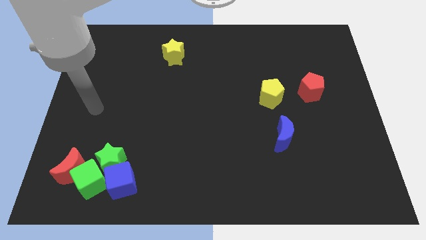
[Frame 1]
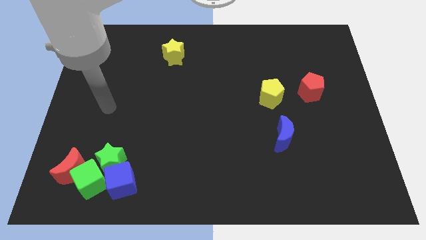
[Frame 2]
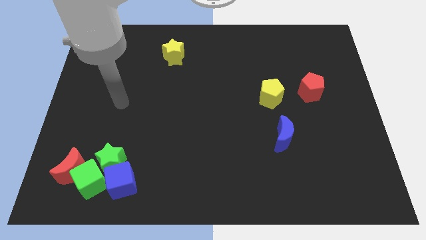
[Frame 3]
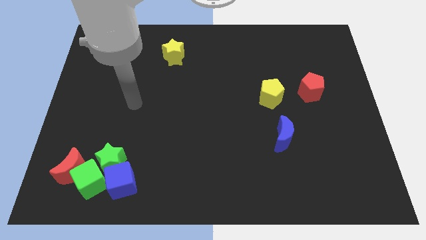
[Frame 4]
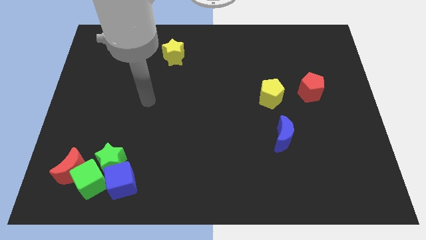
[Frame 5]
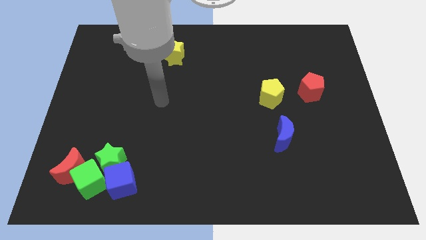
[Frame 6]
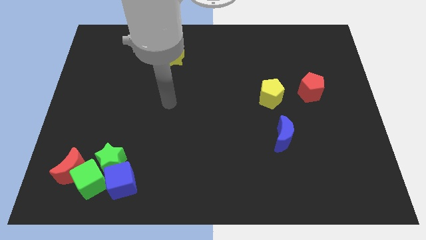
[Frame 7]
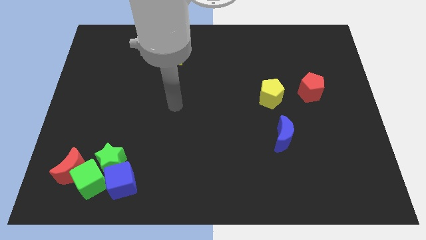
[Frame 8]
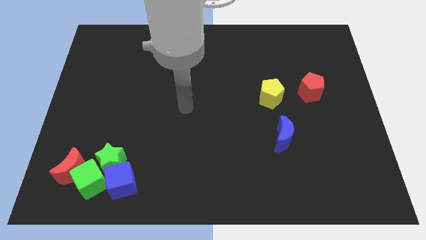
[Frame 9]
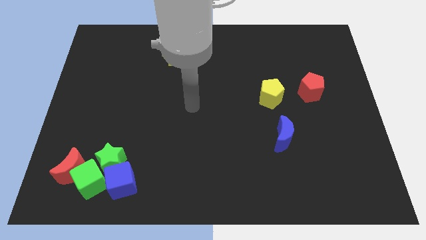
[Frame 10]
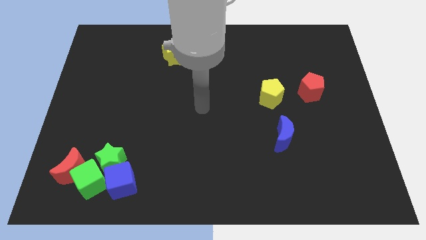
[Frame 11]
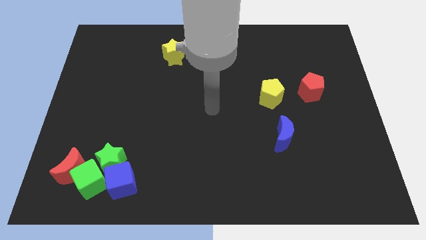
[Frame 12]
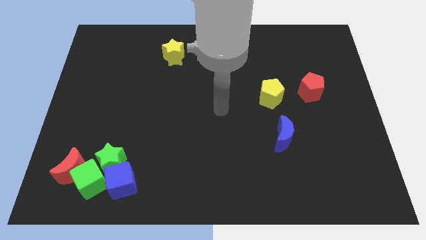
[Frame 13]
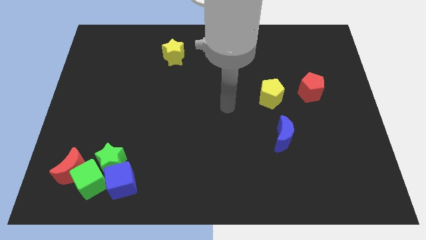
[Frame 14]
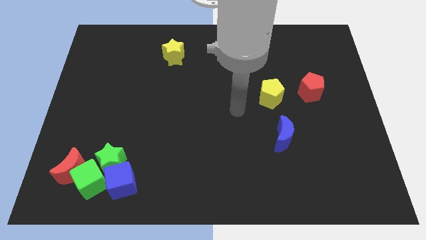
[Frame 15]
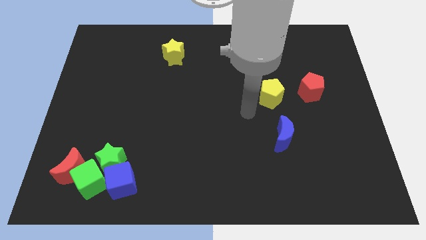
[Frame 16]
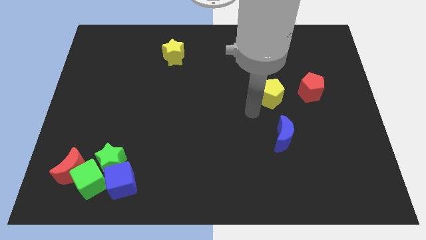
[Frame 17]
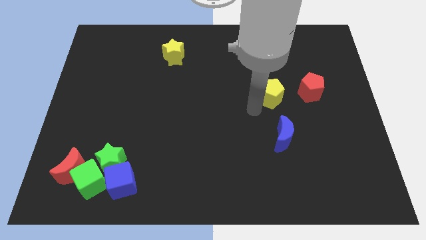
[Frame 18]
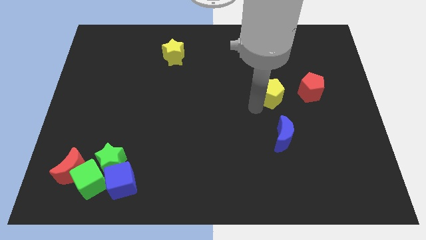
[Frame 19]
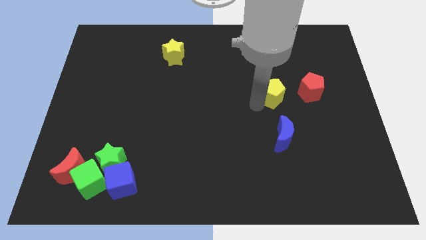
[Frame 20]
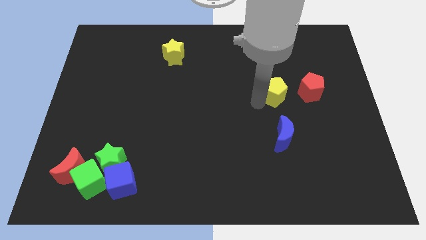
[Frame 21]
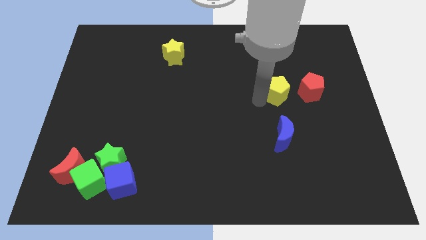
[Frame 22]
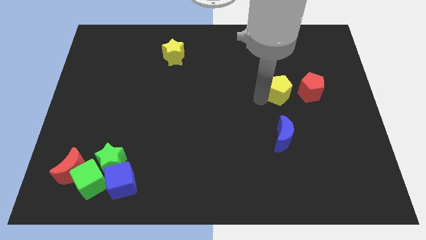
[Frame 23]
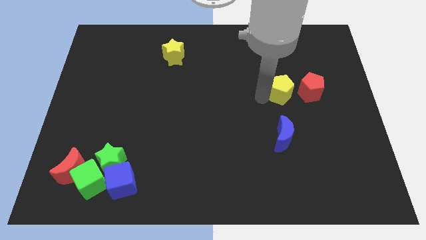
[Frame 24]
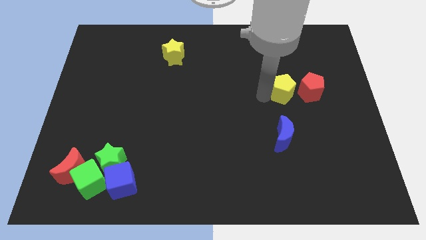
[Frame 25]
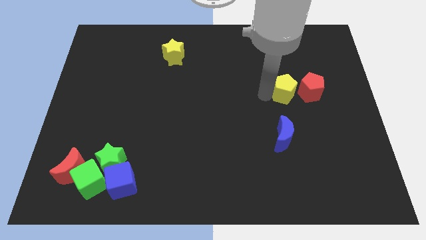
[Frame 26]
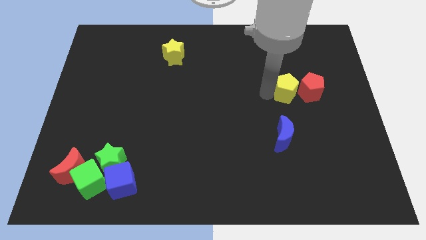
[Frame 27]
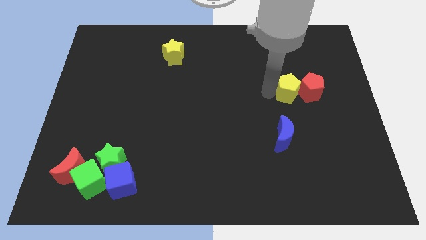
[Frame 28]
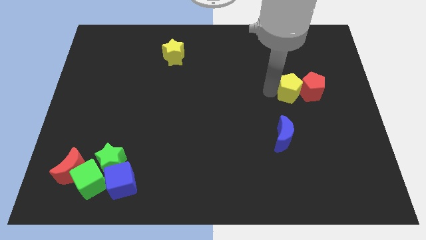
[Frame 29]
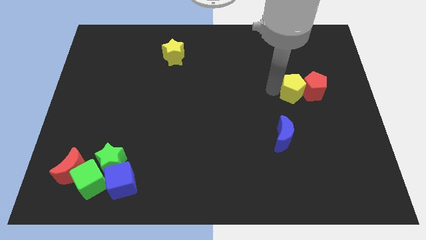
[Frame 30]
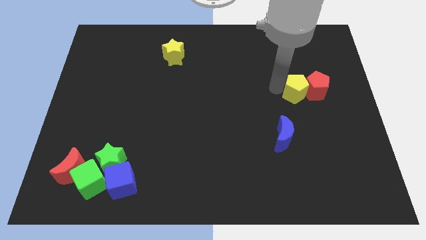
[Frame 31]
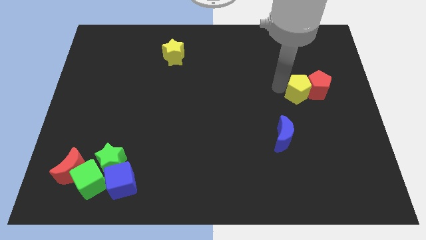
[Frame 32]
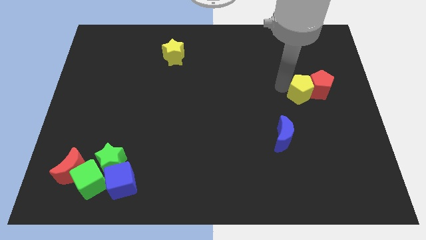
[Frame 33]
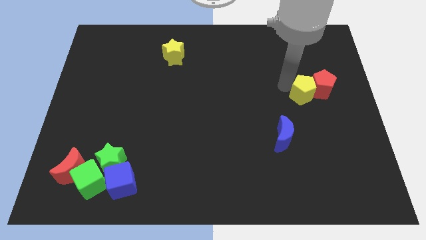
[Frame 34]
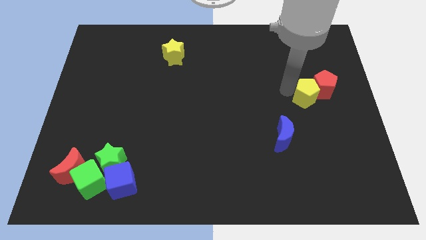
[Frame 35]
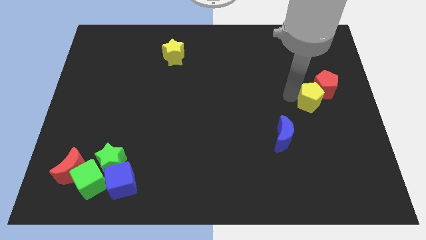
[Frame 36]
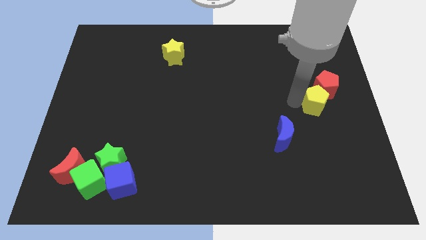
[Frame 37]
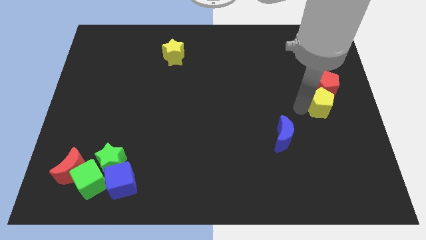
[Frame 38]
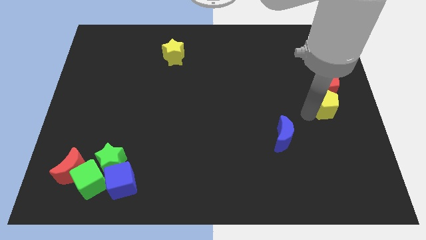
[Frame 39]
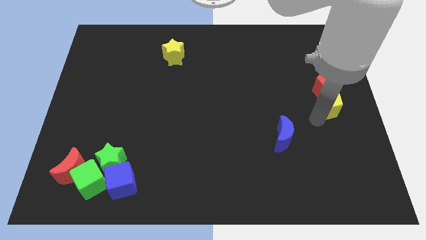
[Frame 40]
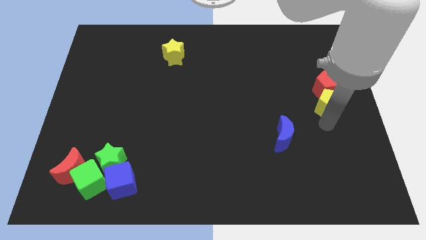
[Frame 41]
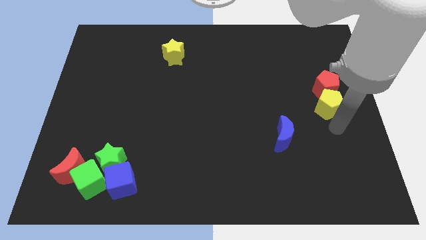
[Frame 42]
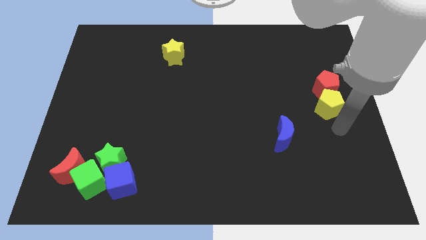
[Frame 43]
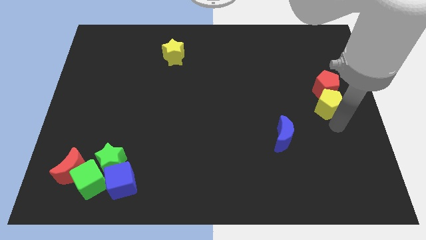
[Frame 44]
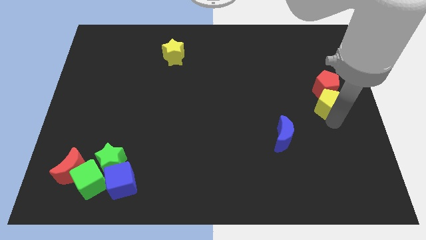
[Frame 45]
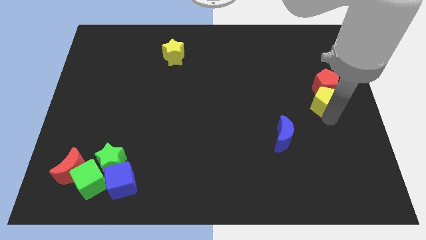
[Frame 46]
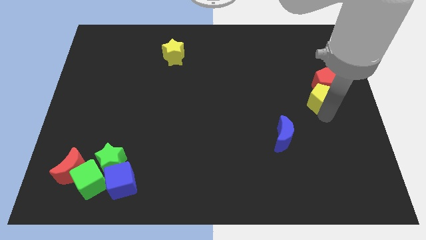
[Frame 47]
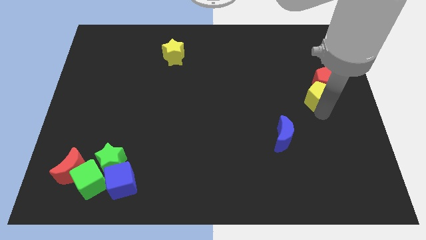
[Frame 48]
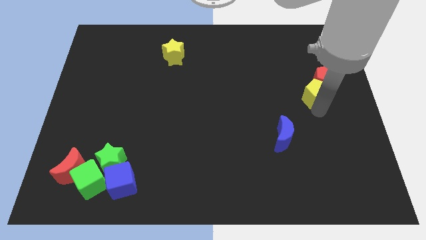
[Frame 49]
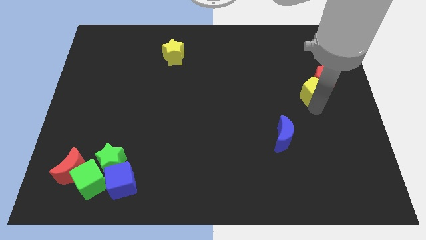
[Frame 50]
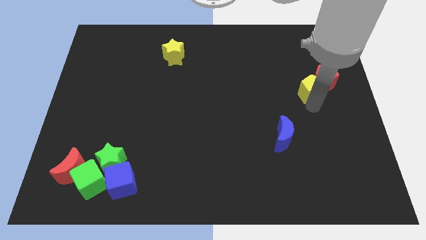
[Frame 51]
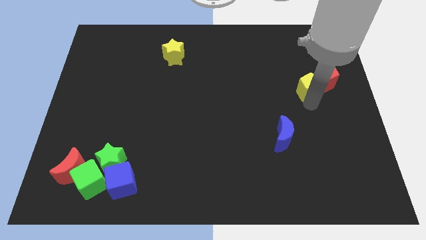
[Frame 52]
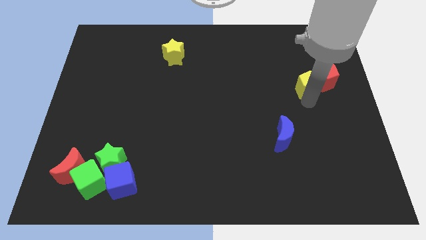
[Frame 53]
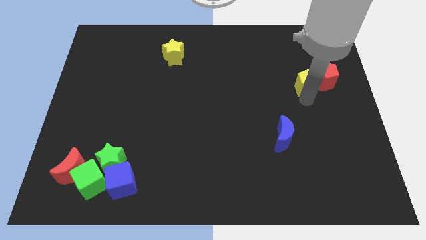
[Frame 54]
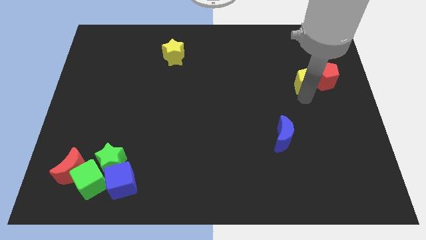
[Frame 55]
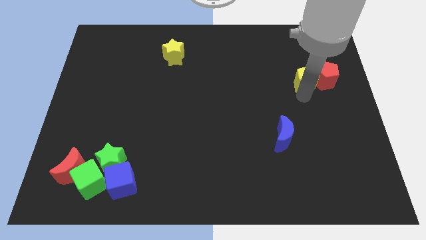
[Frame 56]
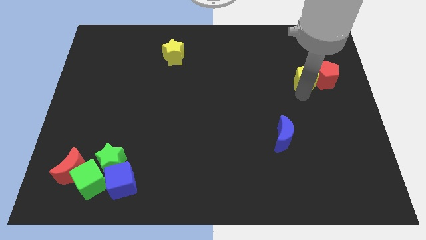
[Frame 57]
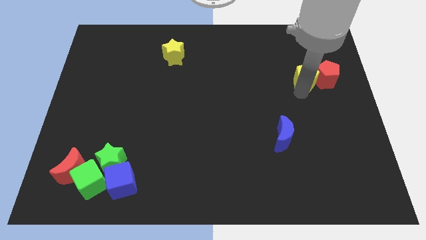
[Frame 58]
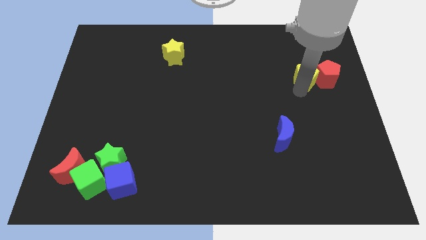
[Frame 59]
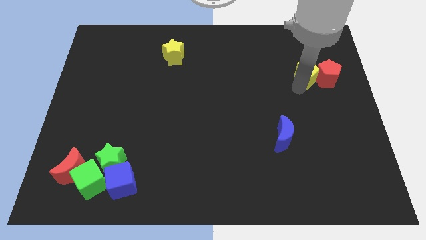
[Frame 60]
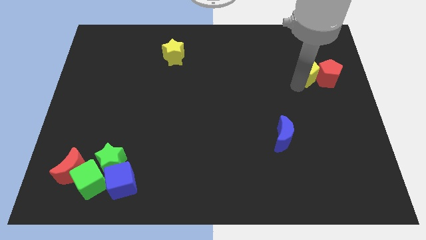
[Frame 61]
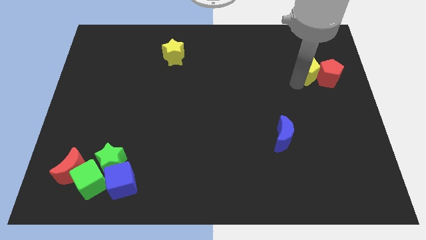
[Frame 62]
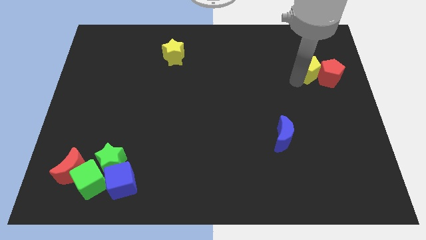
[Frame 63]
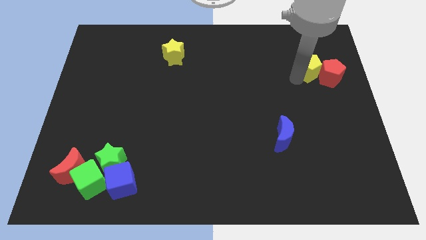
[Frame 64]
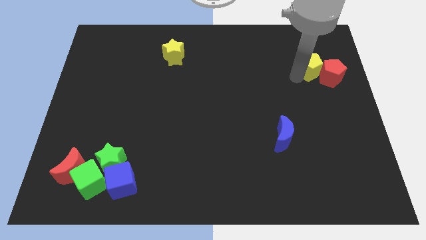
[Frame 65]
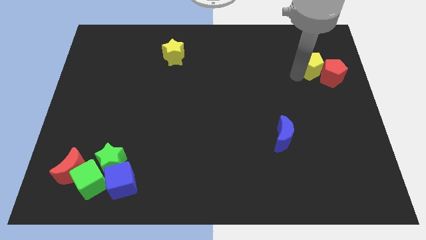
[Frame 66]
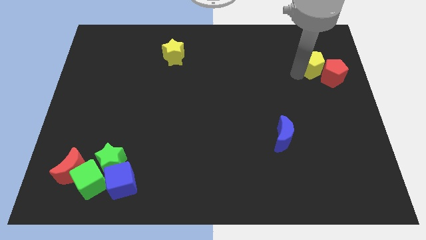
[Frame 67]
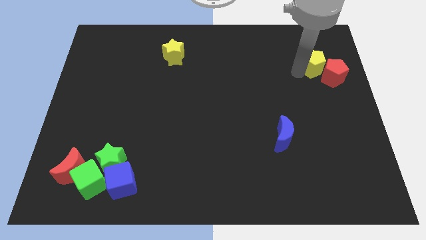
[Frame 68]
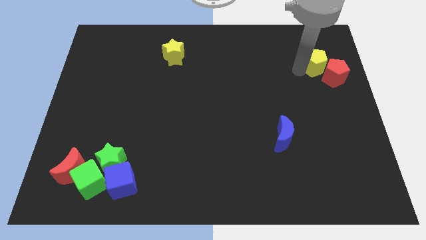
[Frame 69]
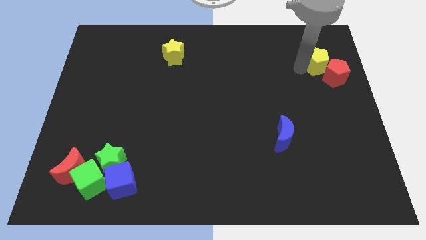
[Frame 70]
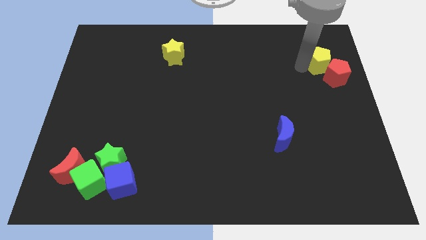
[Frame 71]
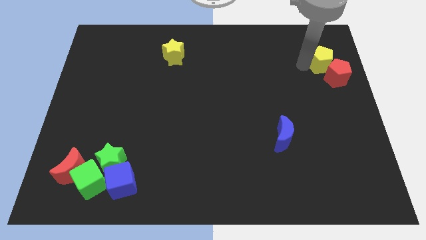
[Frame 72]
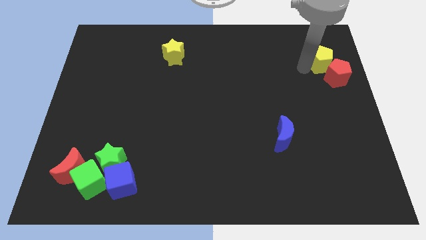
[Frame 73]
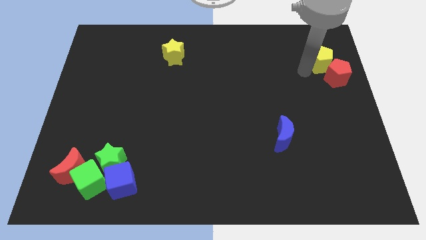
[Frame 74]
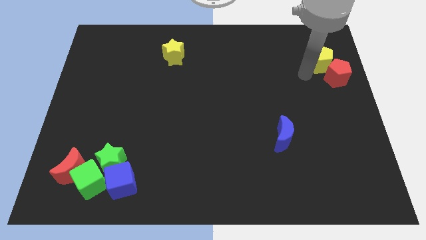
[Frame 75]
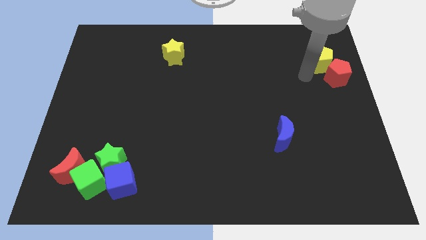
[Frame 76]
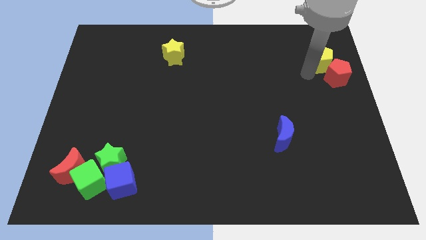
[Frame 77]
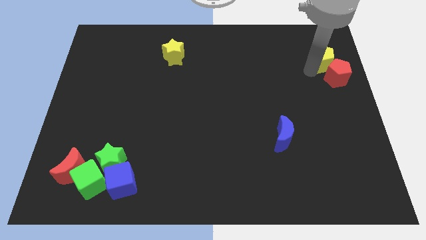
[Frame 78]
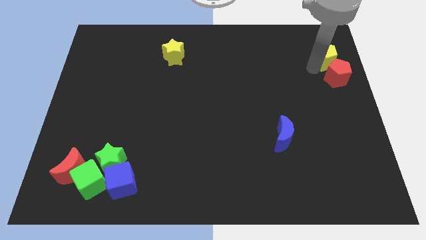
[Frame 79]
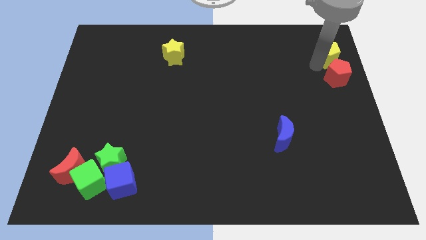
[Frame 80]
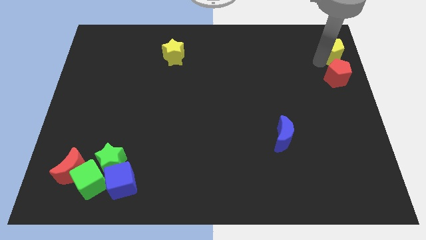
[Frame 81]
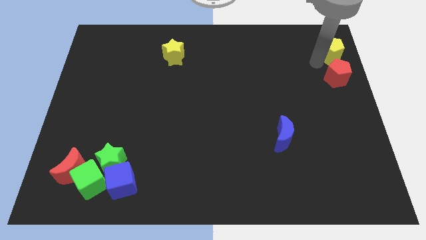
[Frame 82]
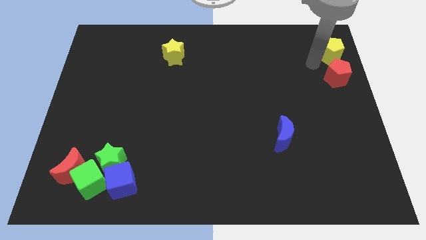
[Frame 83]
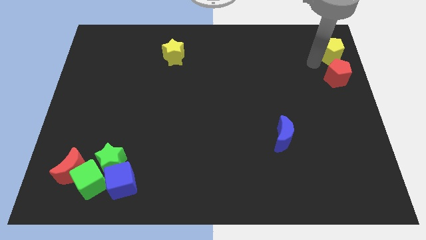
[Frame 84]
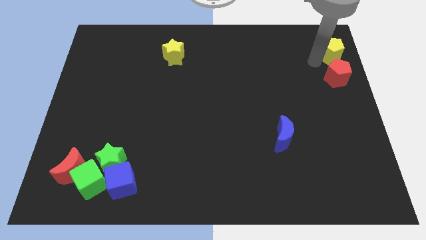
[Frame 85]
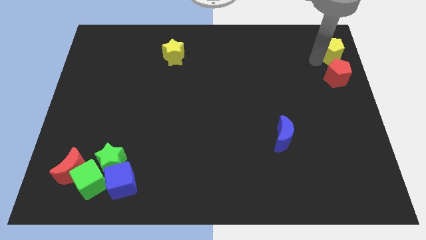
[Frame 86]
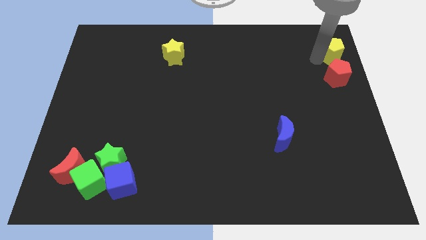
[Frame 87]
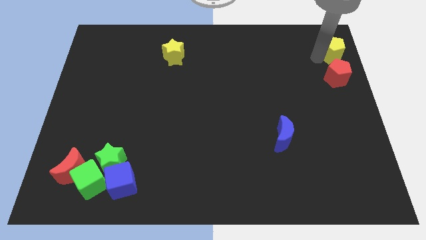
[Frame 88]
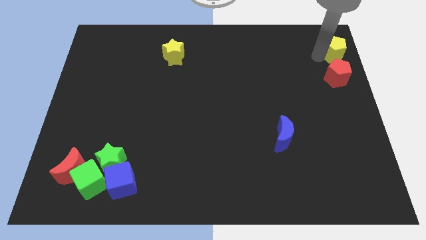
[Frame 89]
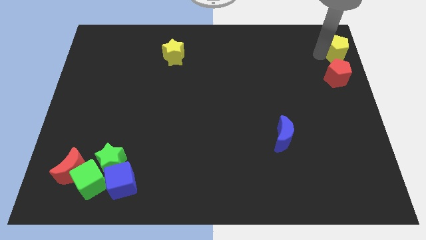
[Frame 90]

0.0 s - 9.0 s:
move the yellow pentagon to the top right corner
